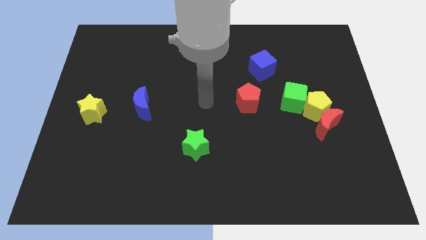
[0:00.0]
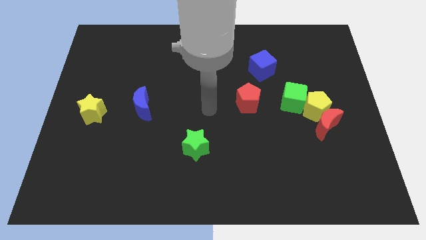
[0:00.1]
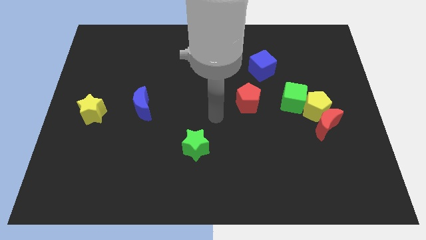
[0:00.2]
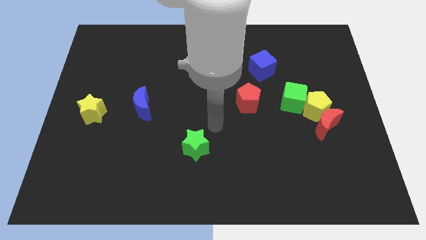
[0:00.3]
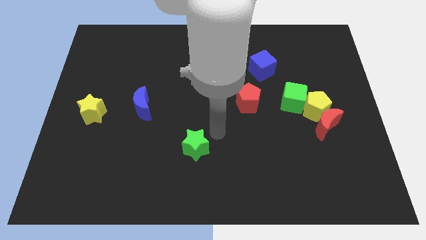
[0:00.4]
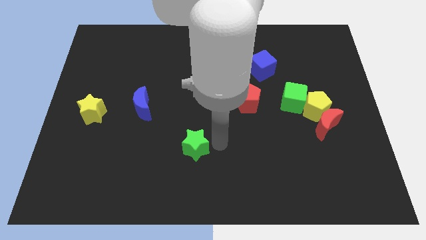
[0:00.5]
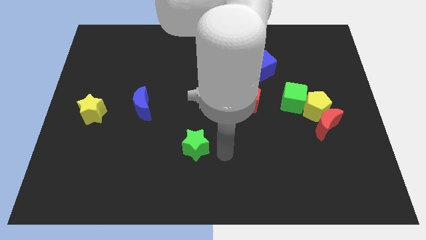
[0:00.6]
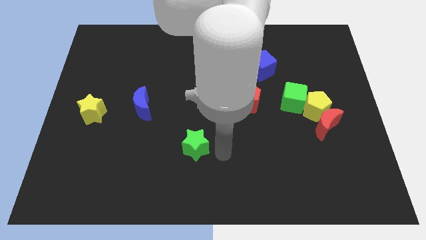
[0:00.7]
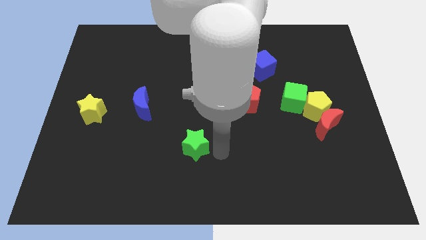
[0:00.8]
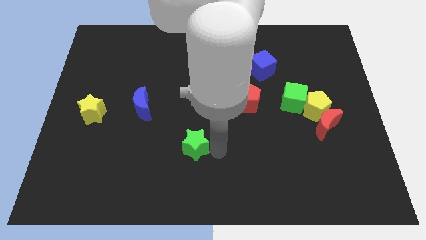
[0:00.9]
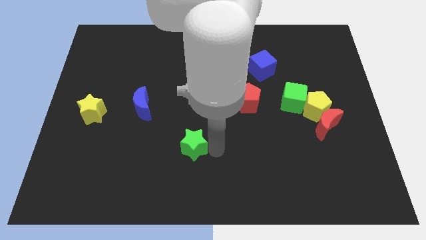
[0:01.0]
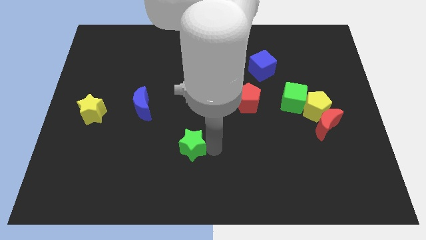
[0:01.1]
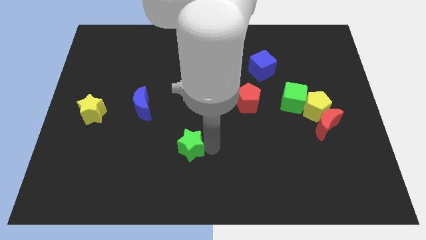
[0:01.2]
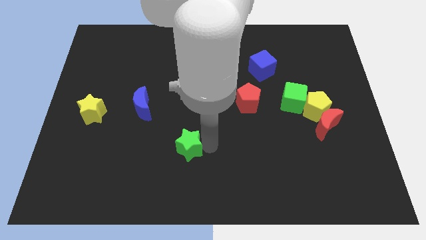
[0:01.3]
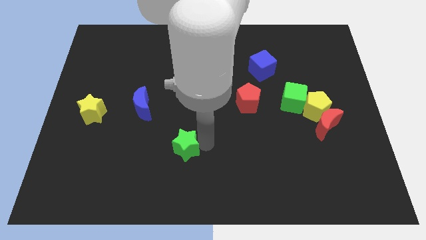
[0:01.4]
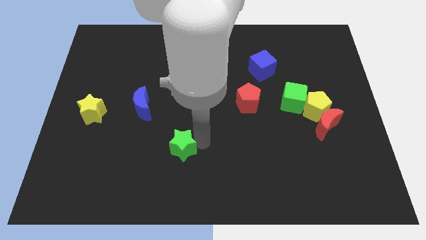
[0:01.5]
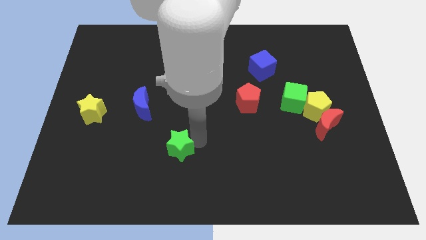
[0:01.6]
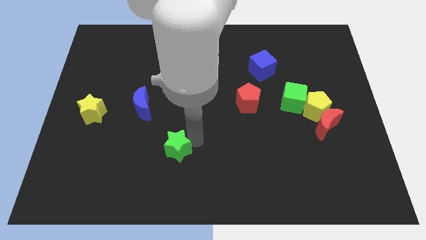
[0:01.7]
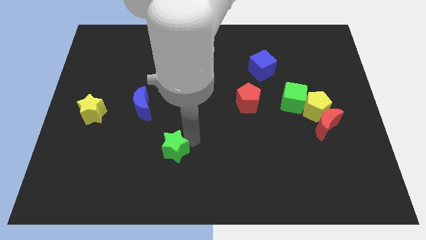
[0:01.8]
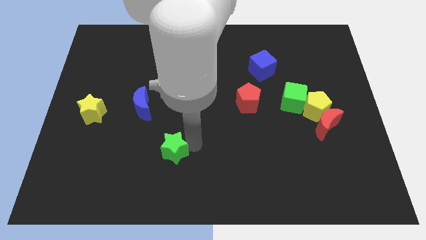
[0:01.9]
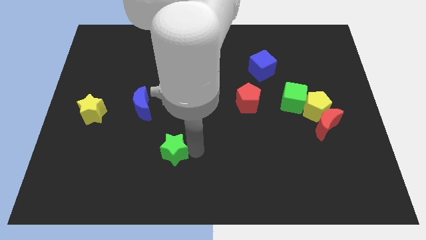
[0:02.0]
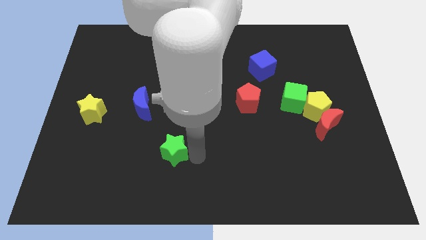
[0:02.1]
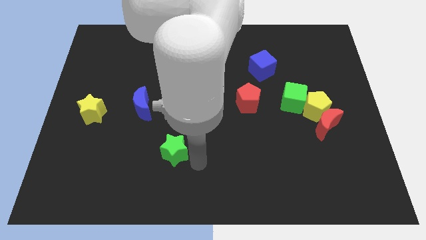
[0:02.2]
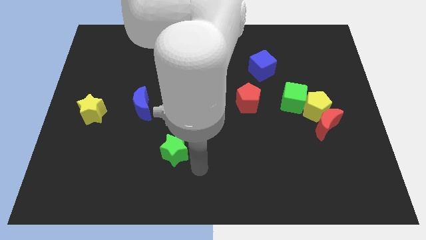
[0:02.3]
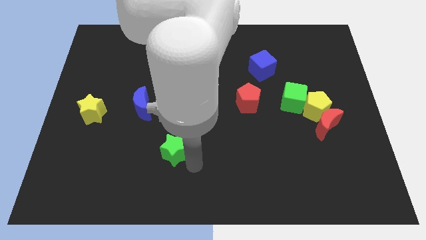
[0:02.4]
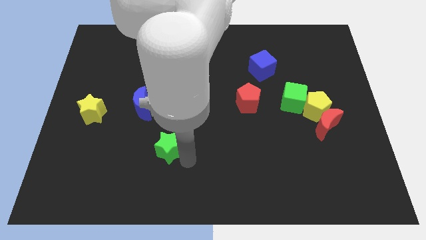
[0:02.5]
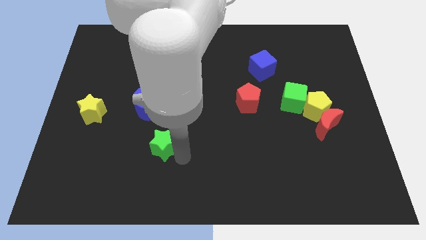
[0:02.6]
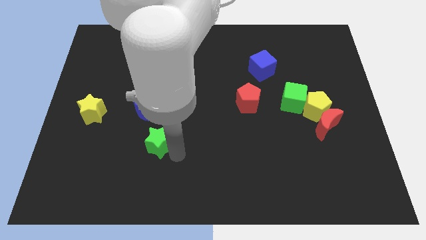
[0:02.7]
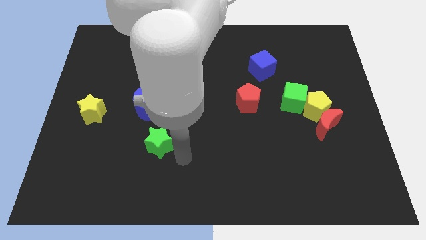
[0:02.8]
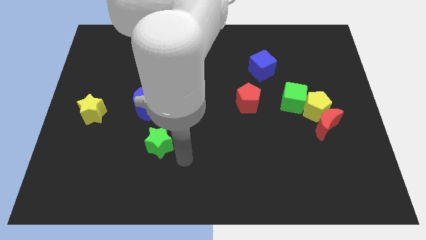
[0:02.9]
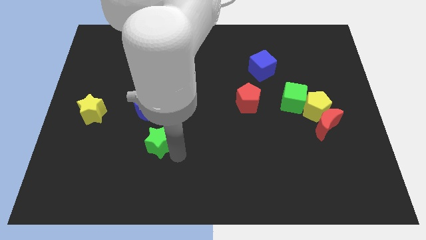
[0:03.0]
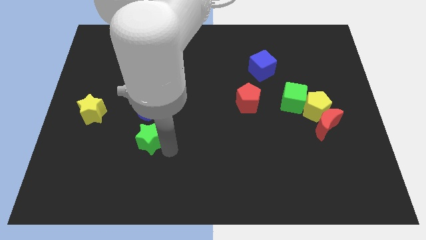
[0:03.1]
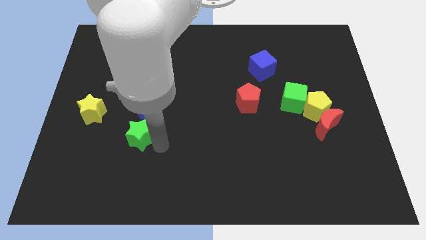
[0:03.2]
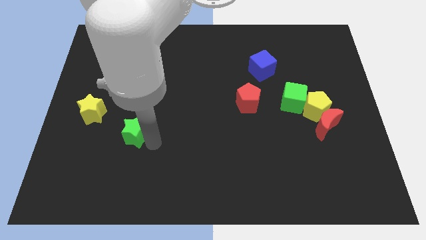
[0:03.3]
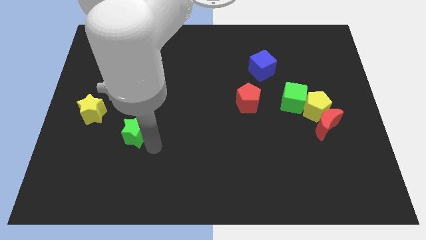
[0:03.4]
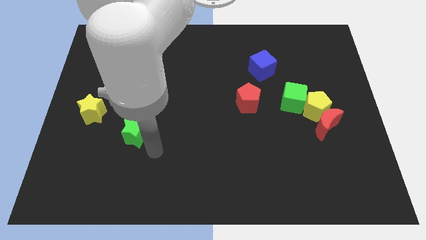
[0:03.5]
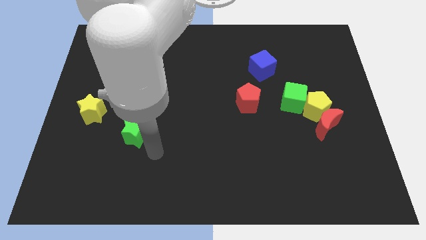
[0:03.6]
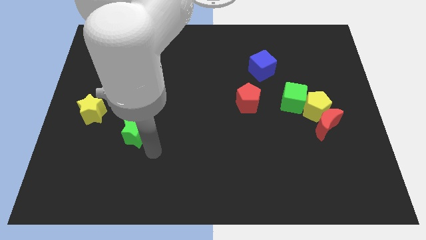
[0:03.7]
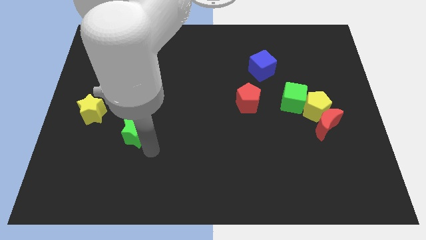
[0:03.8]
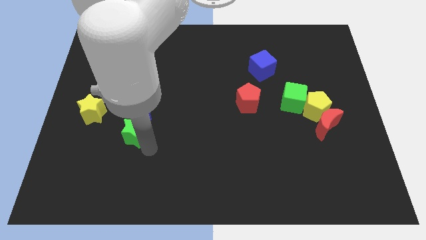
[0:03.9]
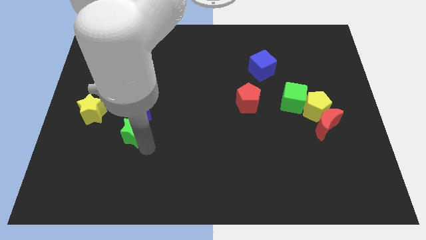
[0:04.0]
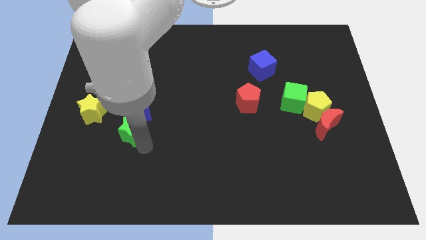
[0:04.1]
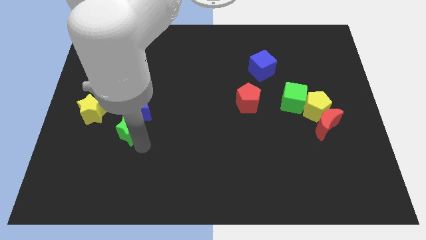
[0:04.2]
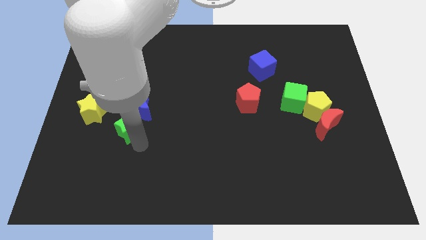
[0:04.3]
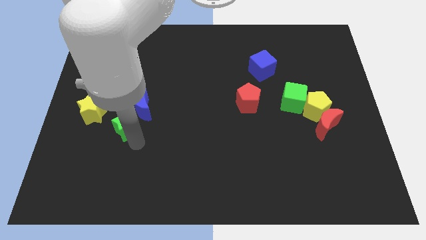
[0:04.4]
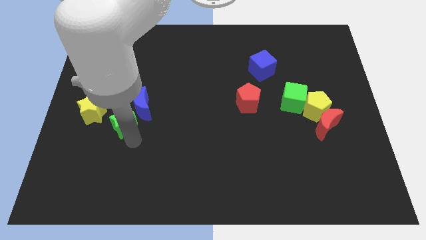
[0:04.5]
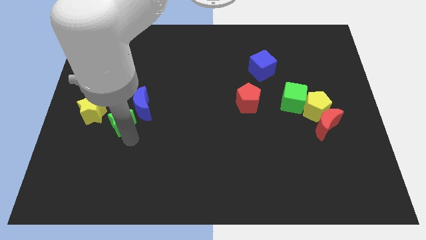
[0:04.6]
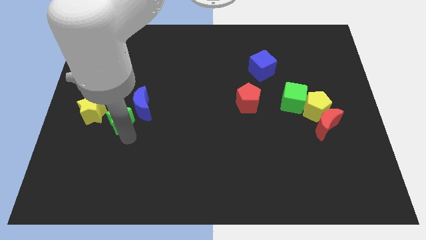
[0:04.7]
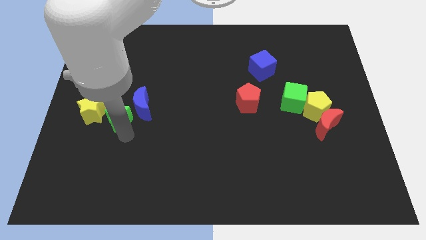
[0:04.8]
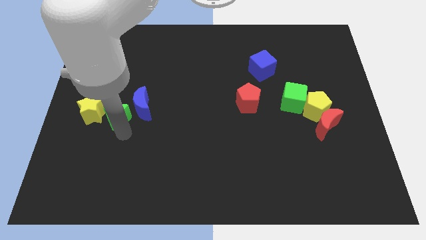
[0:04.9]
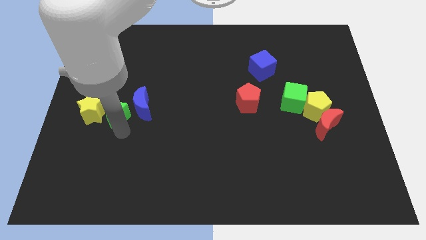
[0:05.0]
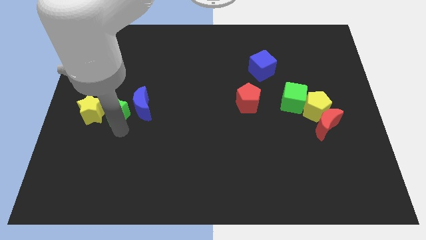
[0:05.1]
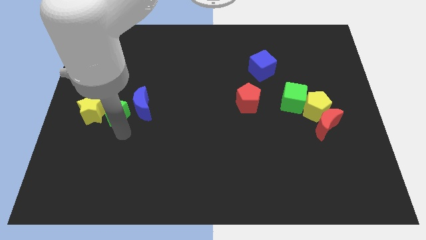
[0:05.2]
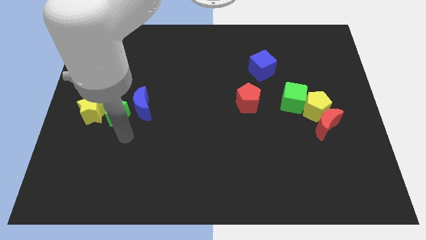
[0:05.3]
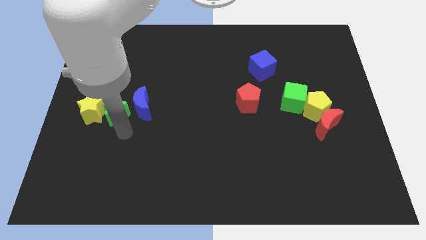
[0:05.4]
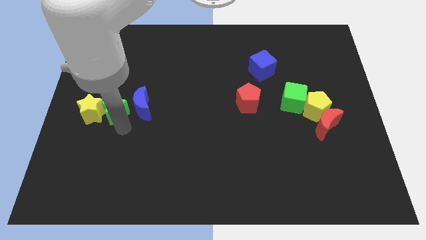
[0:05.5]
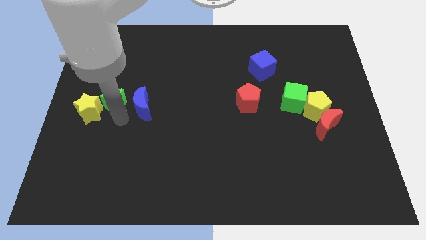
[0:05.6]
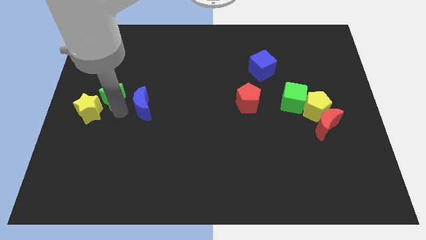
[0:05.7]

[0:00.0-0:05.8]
push the green star above the yellow star

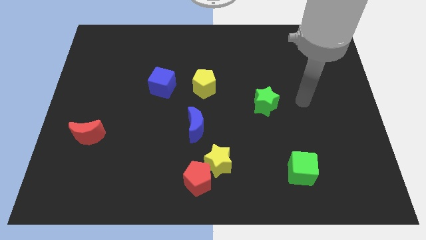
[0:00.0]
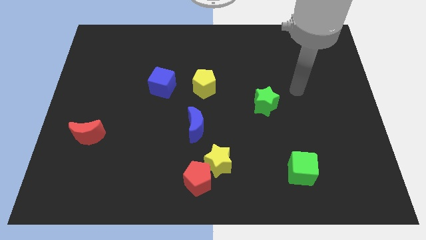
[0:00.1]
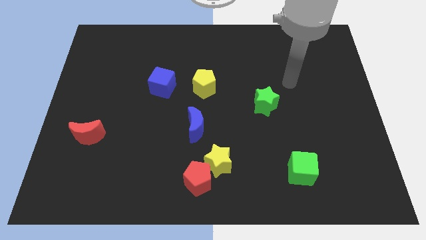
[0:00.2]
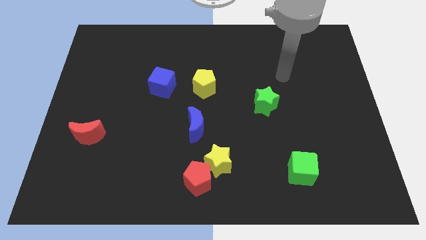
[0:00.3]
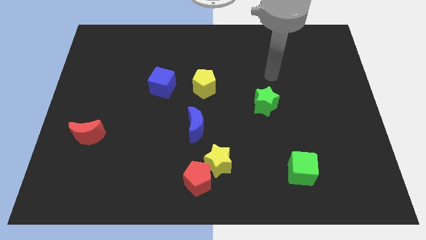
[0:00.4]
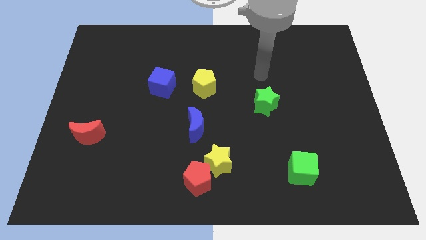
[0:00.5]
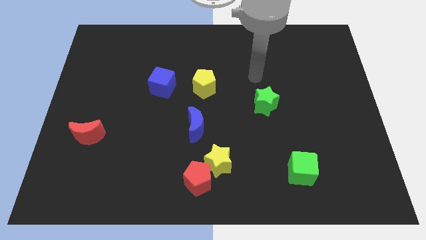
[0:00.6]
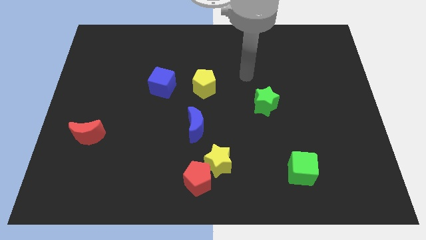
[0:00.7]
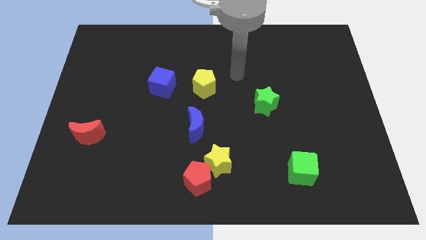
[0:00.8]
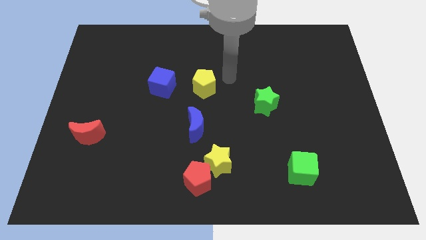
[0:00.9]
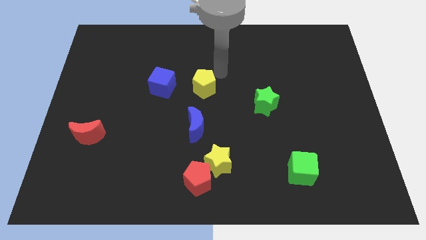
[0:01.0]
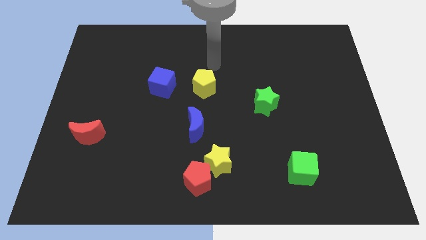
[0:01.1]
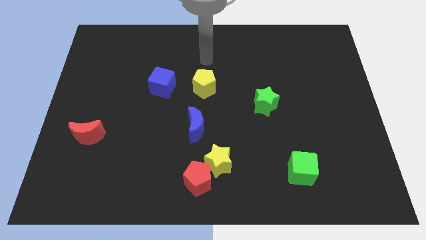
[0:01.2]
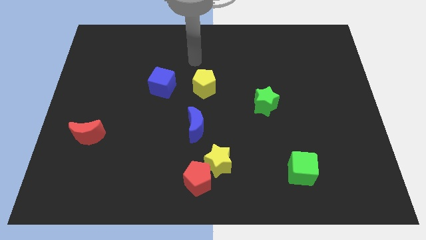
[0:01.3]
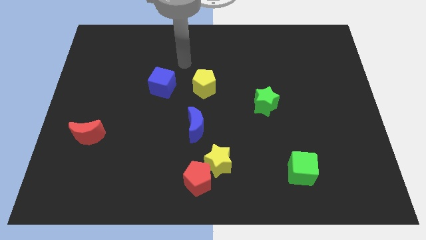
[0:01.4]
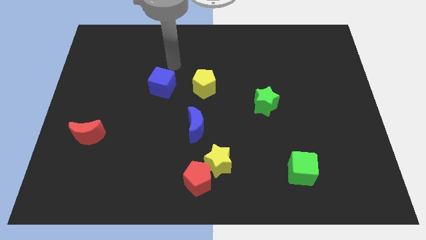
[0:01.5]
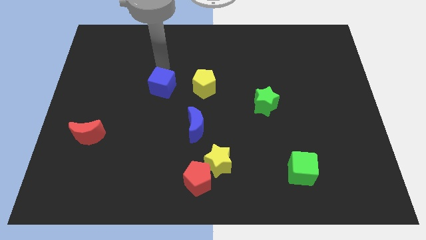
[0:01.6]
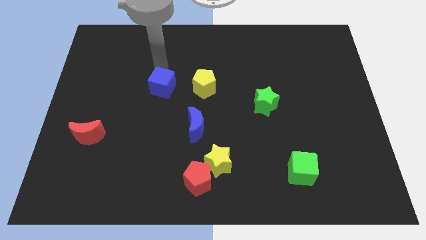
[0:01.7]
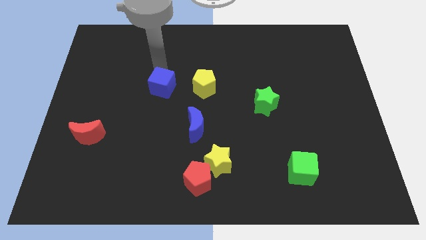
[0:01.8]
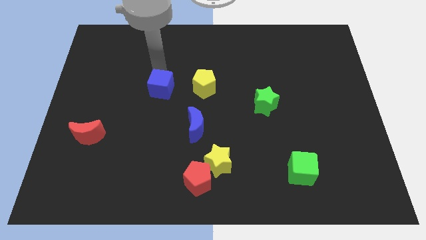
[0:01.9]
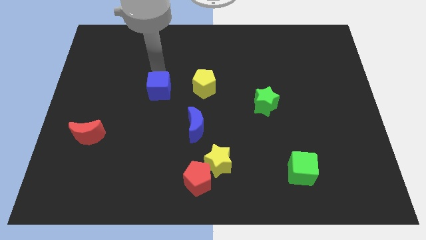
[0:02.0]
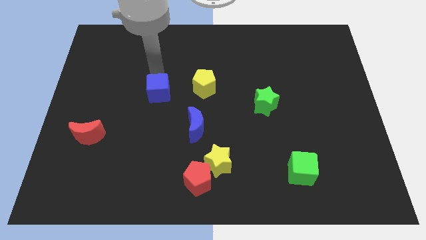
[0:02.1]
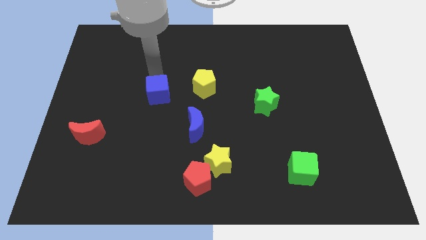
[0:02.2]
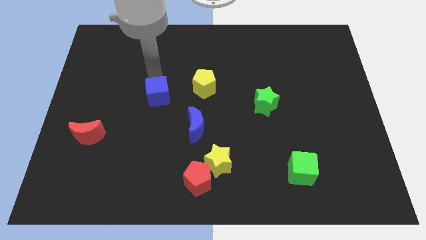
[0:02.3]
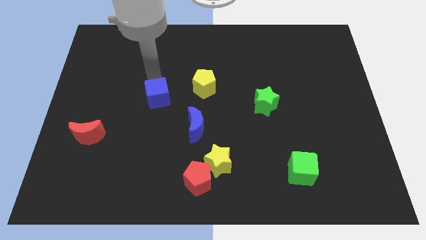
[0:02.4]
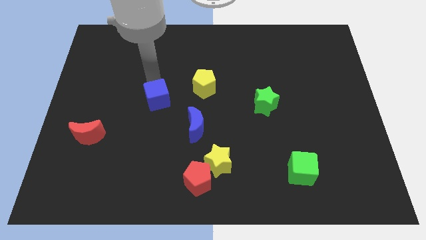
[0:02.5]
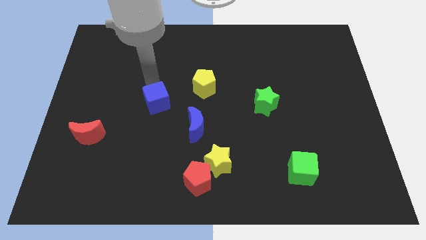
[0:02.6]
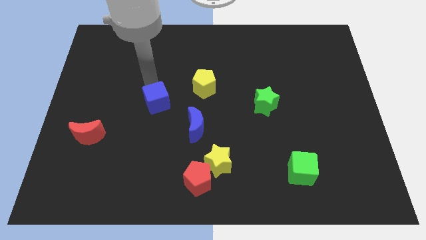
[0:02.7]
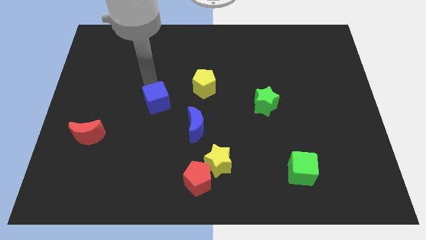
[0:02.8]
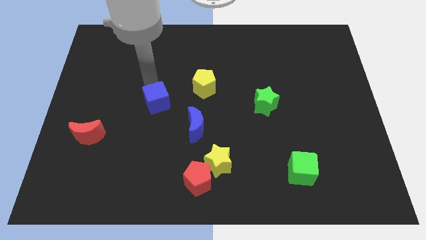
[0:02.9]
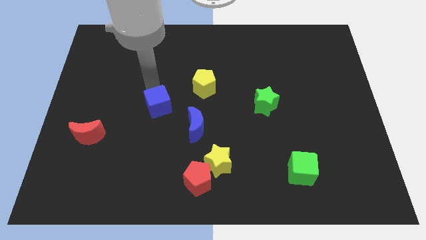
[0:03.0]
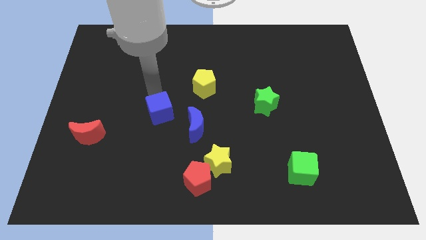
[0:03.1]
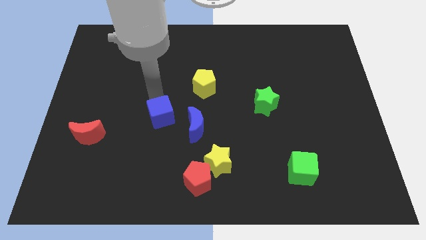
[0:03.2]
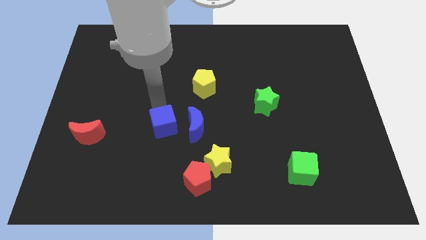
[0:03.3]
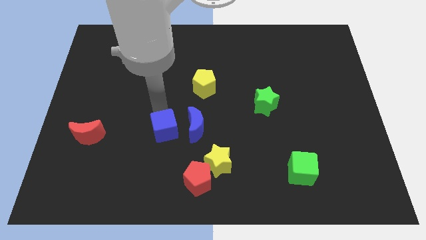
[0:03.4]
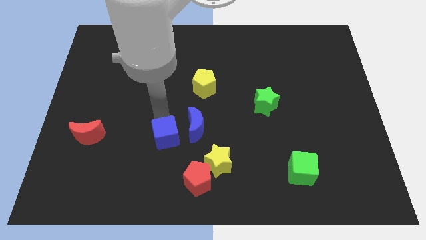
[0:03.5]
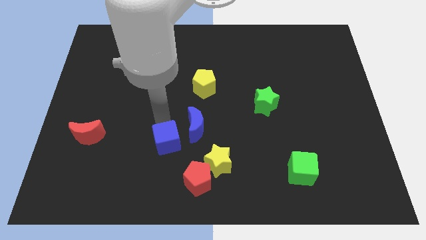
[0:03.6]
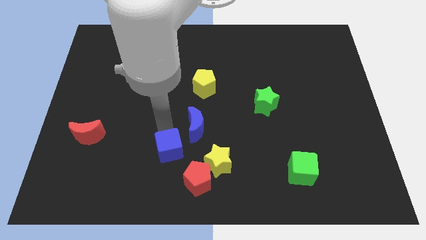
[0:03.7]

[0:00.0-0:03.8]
put the blue cube just left of the yellow star
